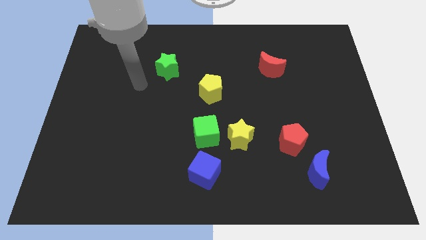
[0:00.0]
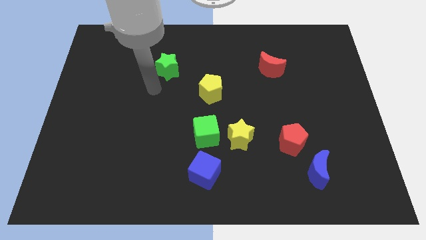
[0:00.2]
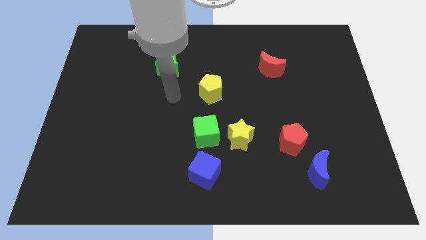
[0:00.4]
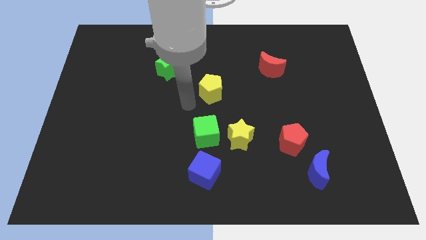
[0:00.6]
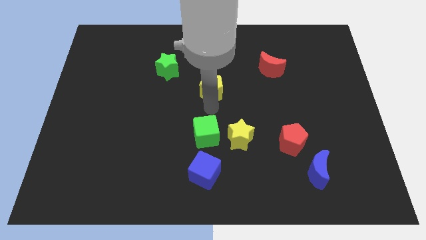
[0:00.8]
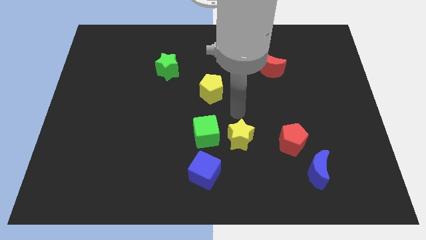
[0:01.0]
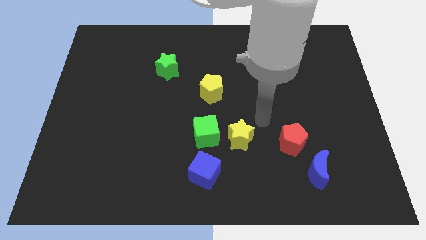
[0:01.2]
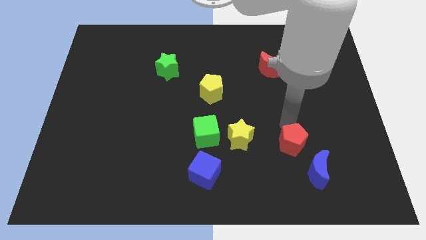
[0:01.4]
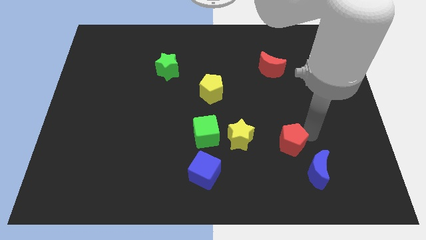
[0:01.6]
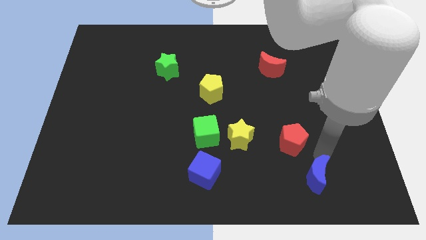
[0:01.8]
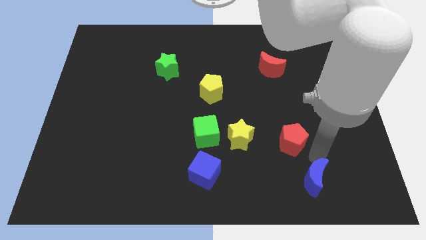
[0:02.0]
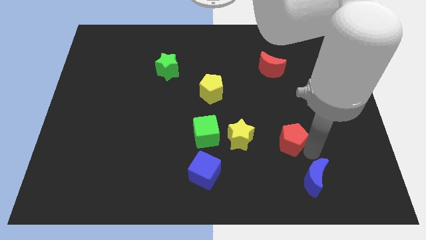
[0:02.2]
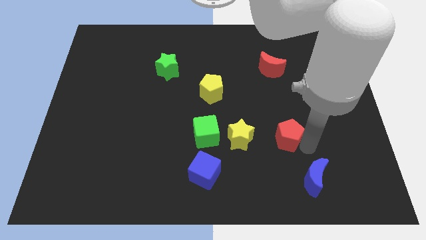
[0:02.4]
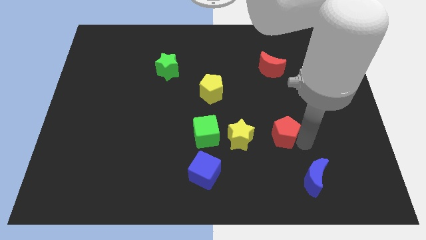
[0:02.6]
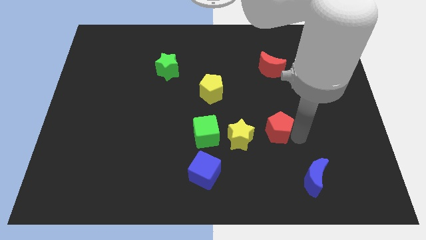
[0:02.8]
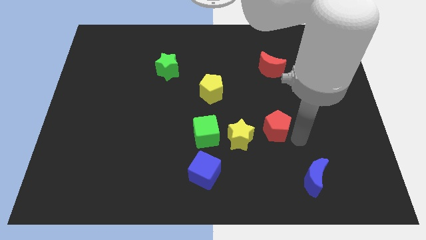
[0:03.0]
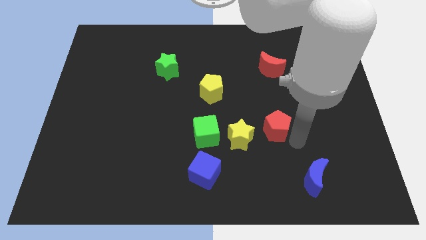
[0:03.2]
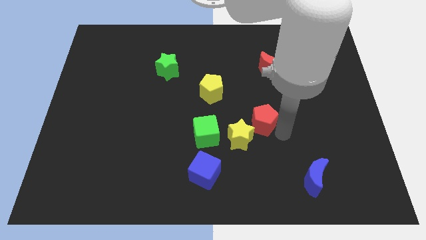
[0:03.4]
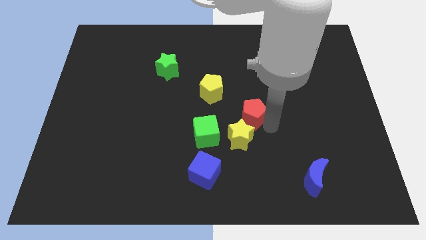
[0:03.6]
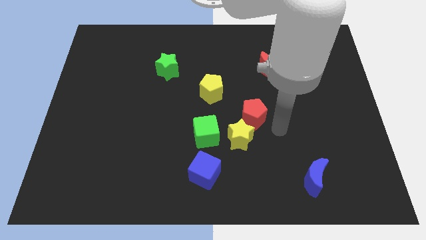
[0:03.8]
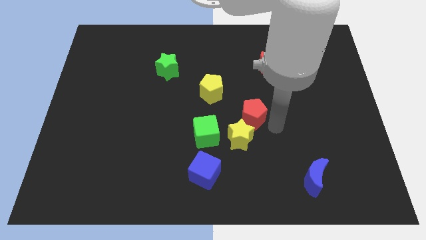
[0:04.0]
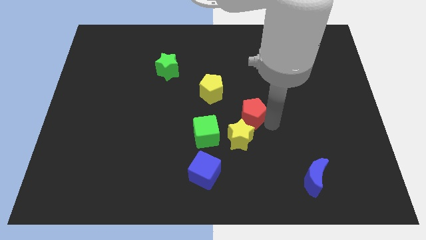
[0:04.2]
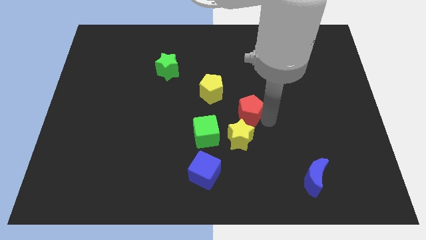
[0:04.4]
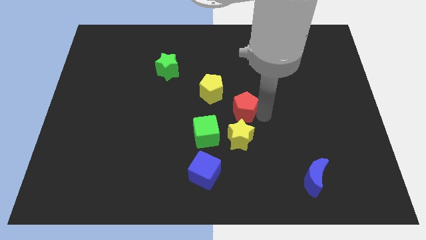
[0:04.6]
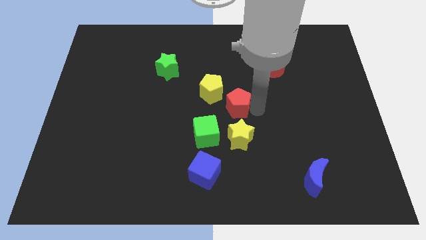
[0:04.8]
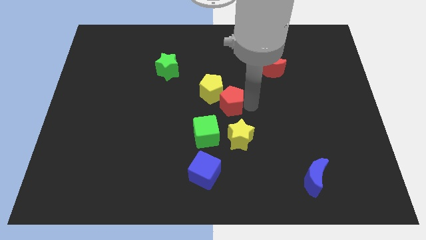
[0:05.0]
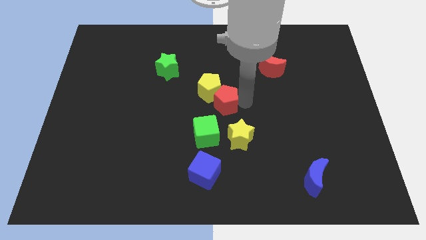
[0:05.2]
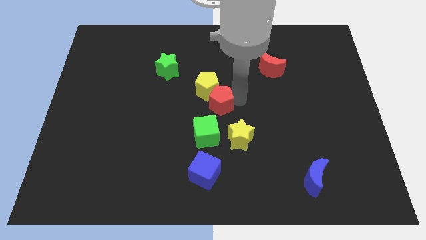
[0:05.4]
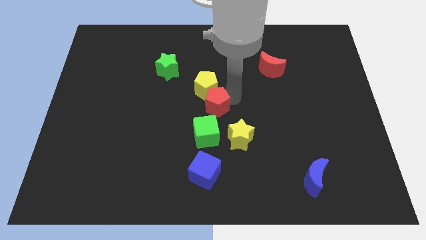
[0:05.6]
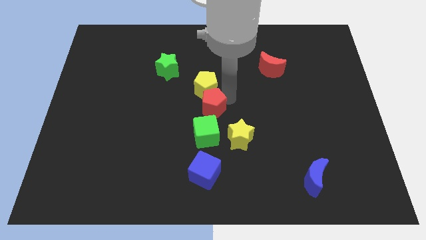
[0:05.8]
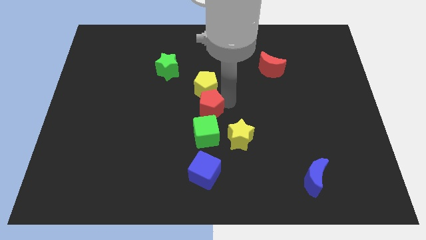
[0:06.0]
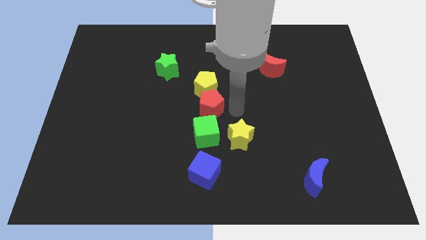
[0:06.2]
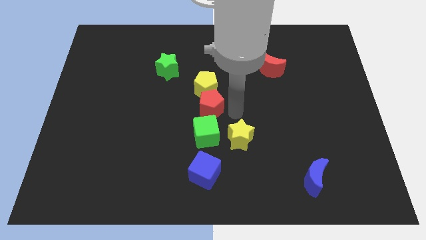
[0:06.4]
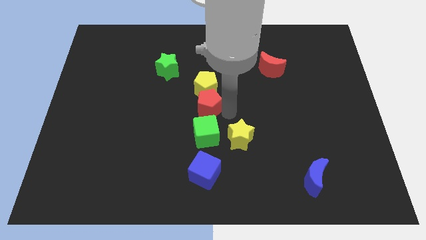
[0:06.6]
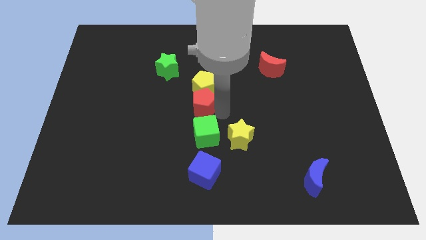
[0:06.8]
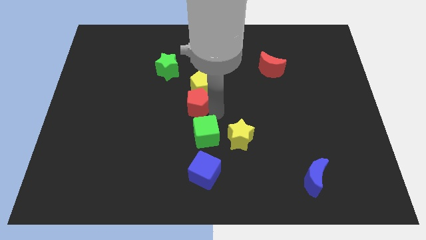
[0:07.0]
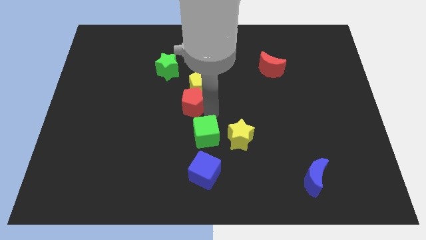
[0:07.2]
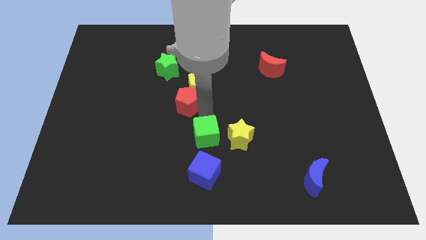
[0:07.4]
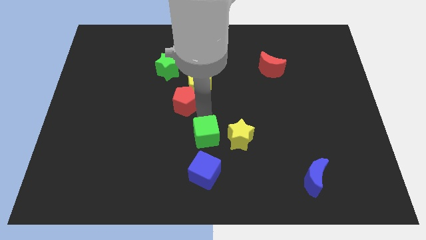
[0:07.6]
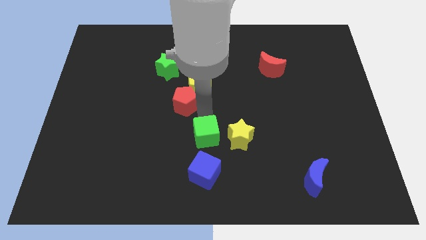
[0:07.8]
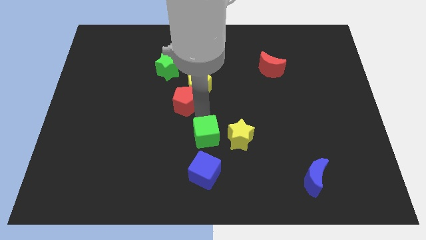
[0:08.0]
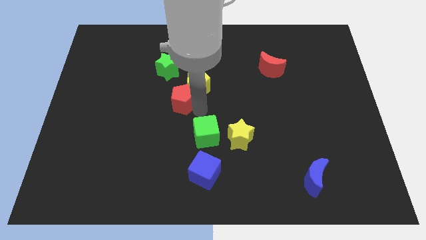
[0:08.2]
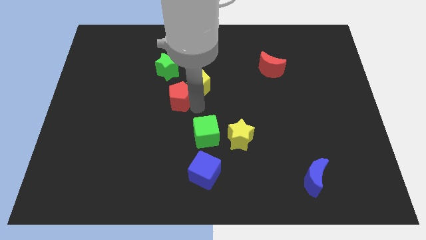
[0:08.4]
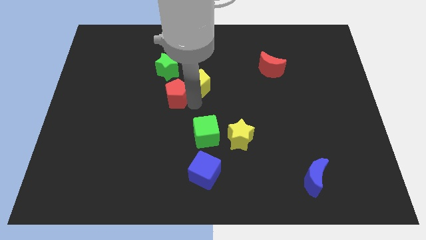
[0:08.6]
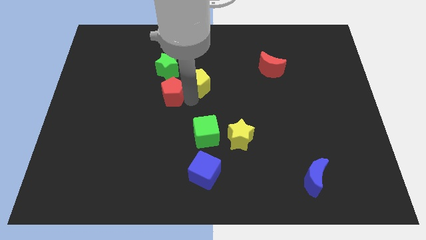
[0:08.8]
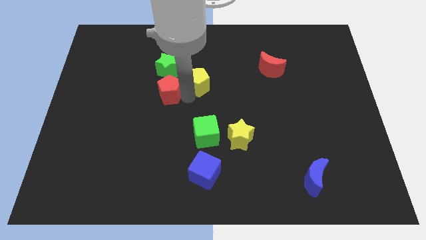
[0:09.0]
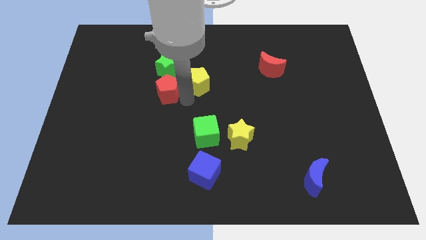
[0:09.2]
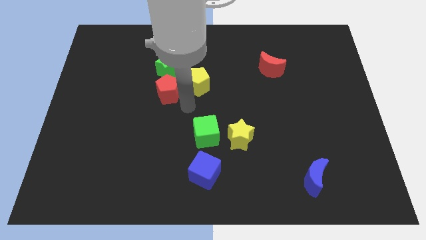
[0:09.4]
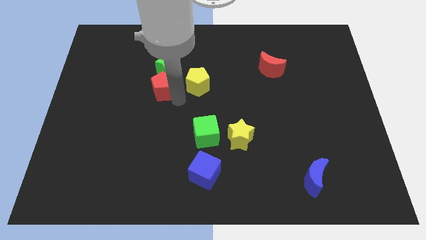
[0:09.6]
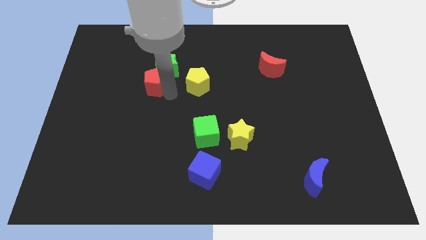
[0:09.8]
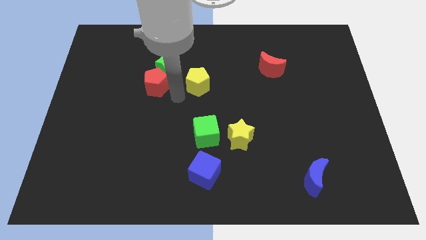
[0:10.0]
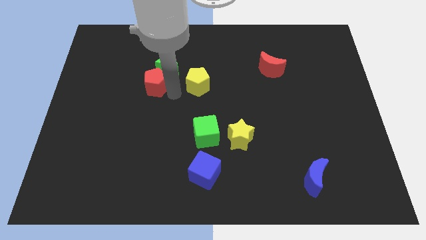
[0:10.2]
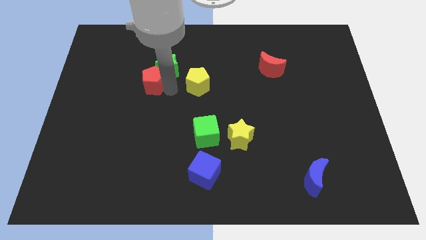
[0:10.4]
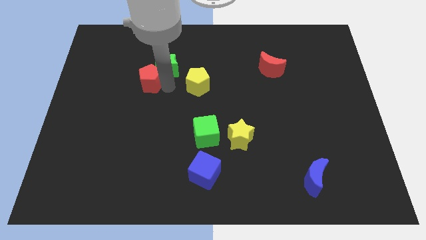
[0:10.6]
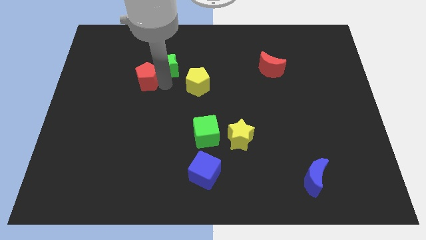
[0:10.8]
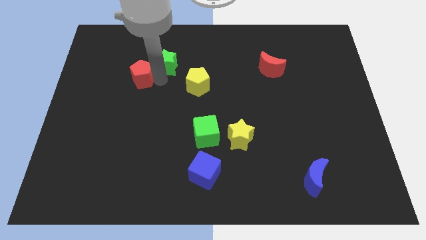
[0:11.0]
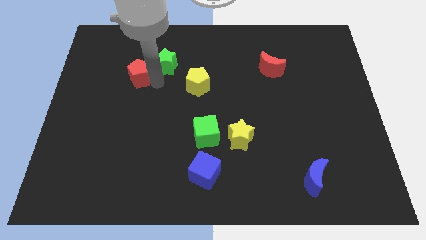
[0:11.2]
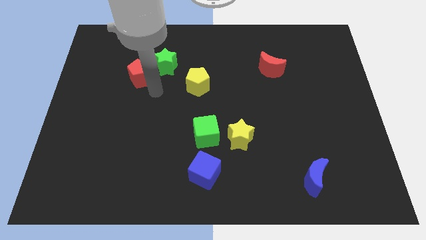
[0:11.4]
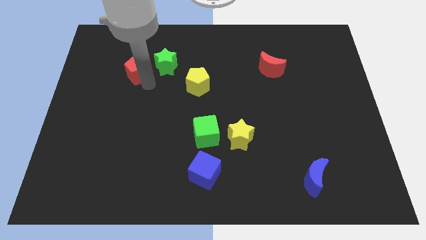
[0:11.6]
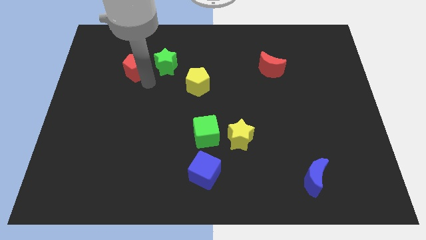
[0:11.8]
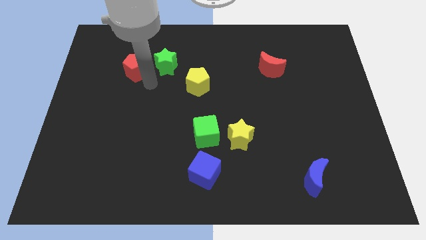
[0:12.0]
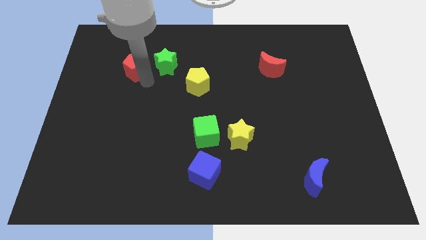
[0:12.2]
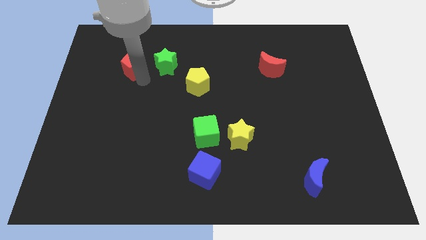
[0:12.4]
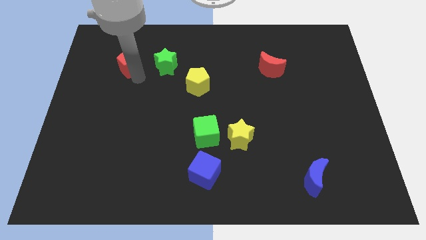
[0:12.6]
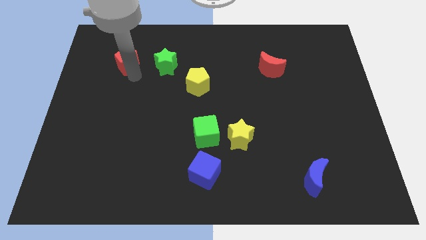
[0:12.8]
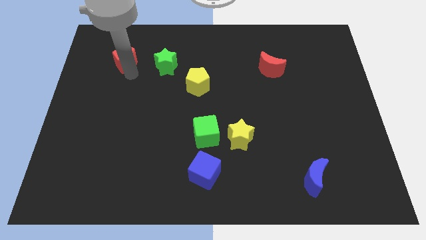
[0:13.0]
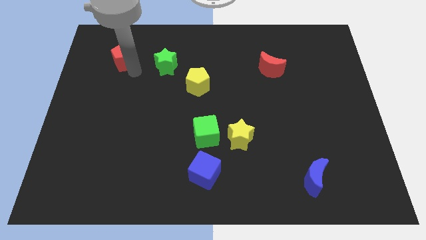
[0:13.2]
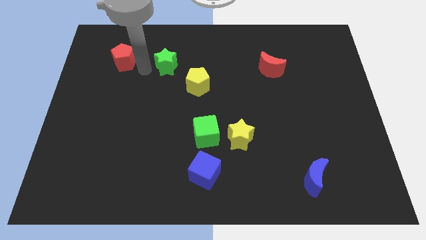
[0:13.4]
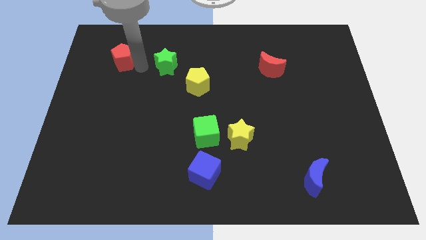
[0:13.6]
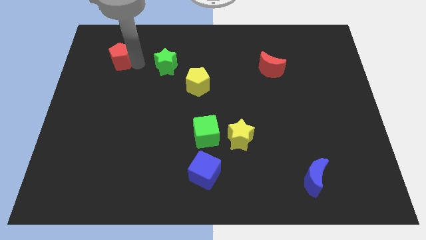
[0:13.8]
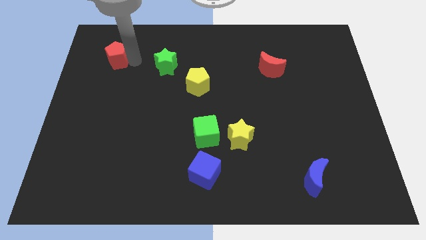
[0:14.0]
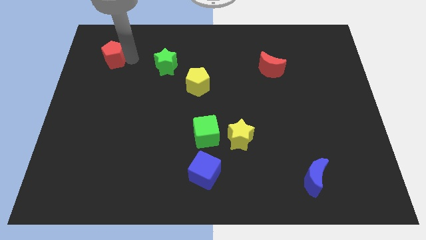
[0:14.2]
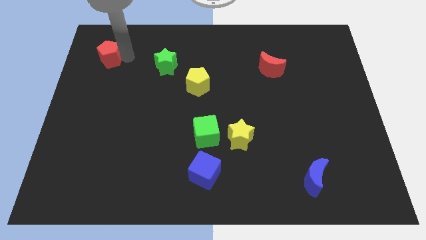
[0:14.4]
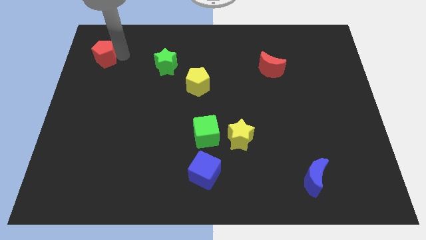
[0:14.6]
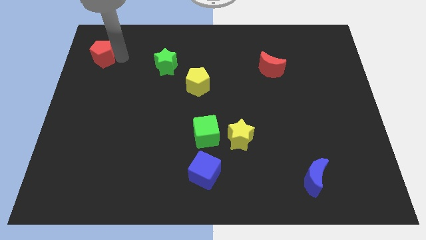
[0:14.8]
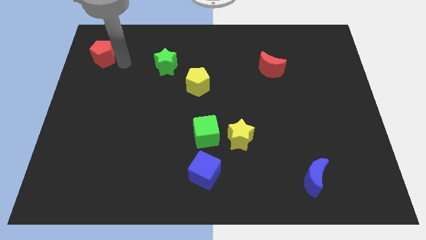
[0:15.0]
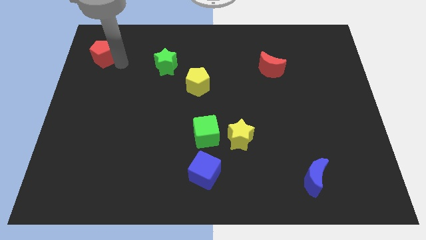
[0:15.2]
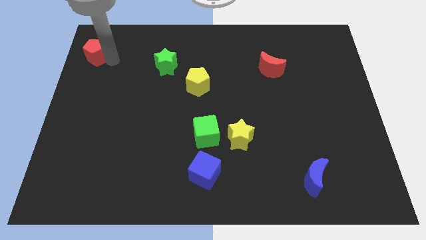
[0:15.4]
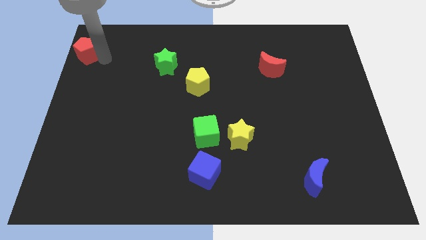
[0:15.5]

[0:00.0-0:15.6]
move the red pentagon to the upper left corner
